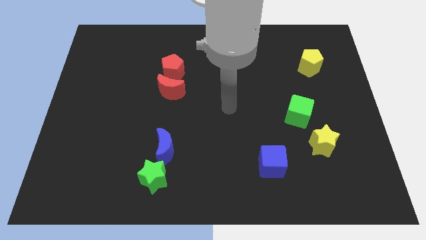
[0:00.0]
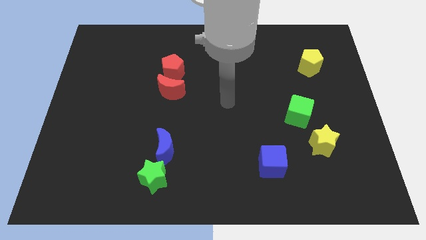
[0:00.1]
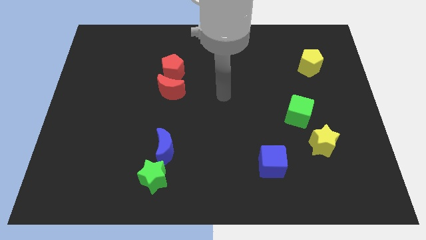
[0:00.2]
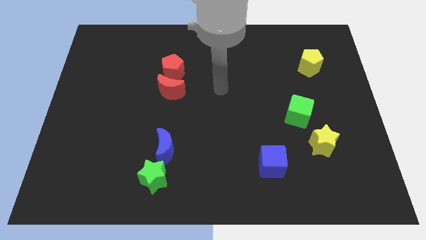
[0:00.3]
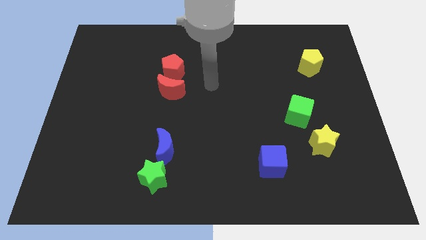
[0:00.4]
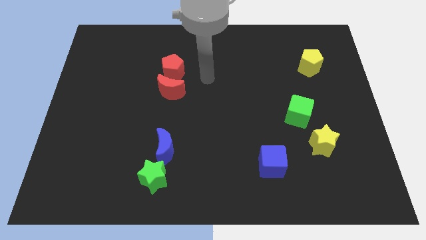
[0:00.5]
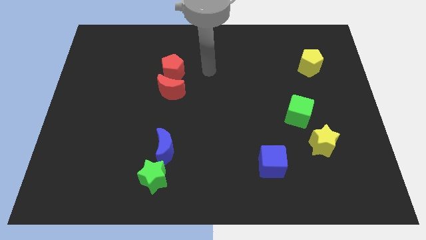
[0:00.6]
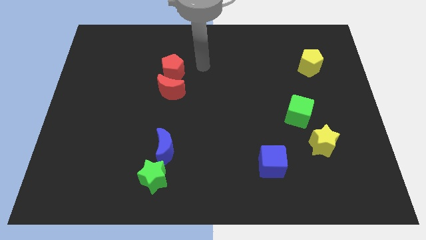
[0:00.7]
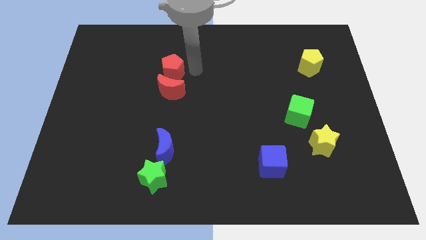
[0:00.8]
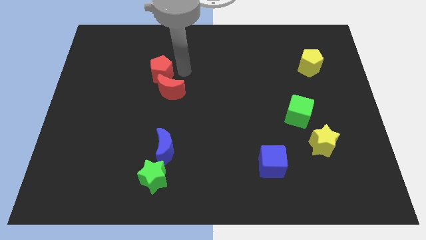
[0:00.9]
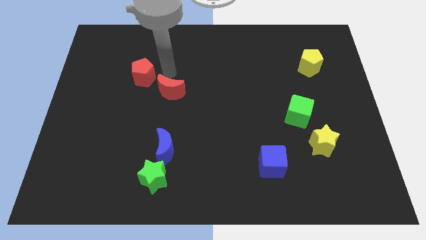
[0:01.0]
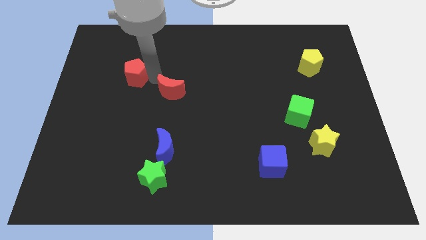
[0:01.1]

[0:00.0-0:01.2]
separate the red moon from the red pentagon

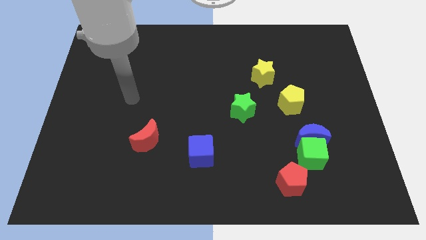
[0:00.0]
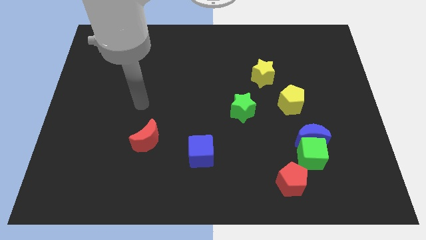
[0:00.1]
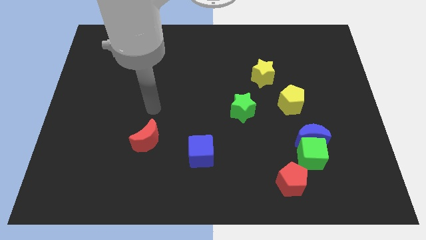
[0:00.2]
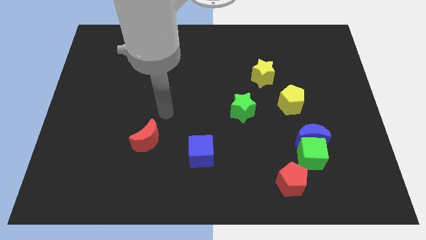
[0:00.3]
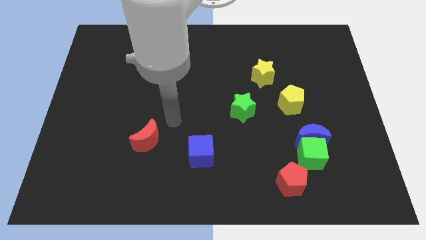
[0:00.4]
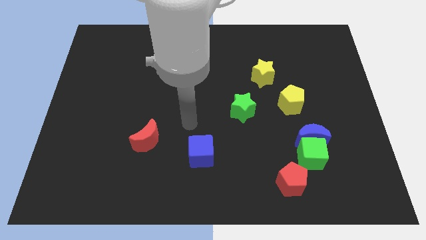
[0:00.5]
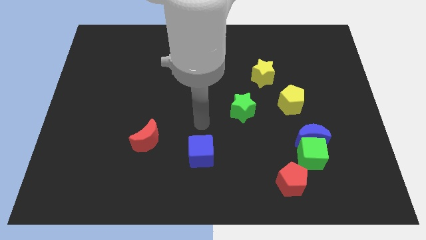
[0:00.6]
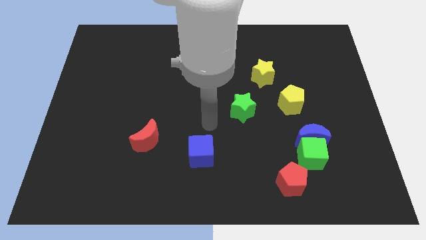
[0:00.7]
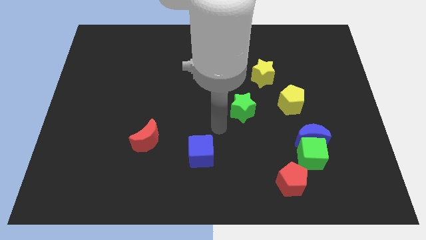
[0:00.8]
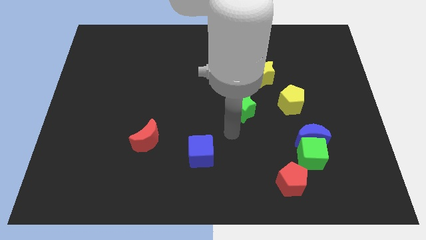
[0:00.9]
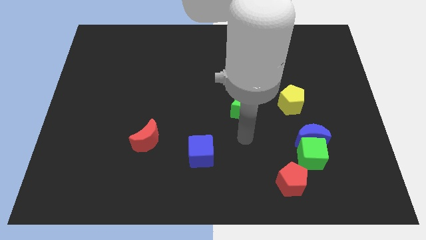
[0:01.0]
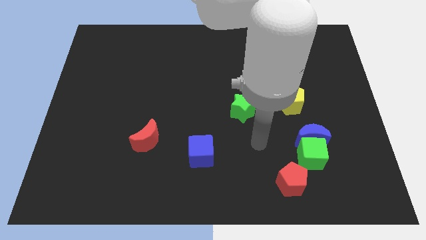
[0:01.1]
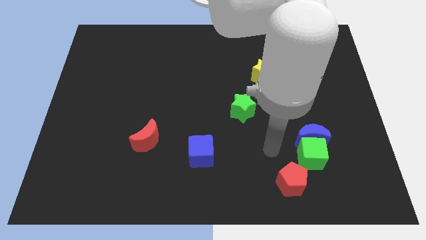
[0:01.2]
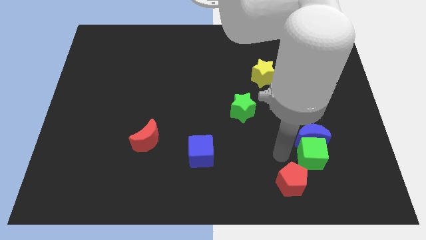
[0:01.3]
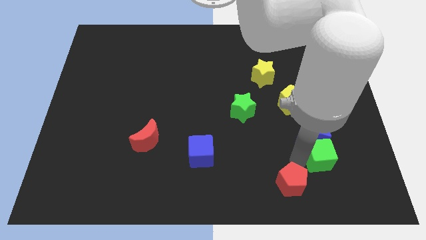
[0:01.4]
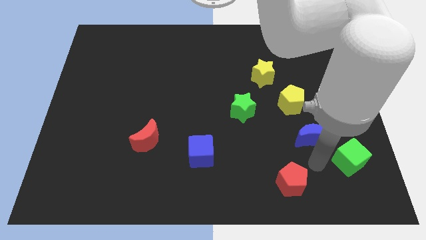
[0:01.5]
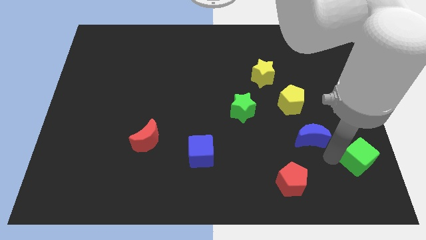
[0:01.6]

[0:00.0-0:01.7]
move the blue moon away from the green cube

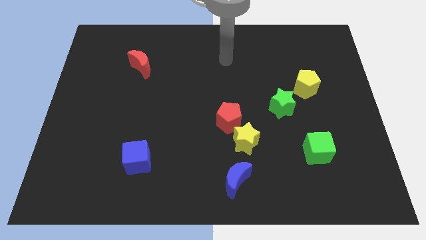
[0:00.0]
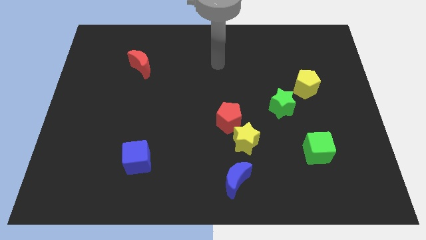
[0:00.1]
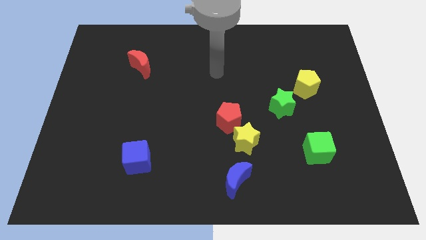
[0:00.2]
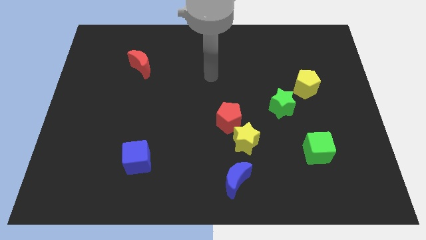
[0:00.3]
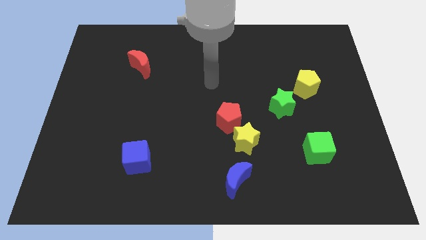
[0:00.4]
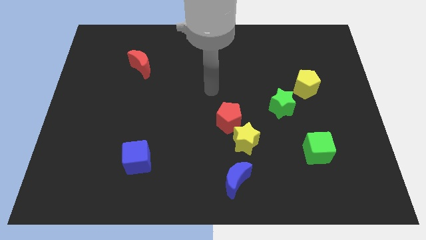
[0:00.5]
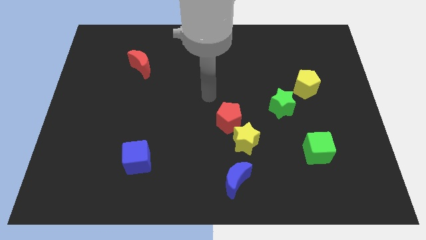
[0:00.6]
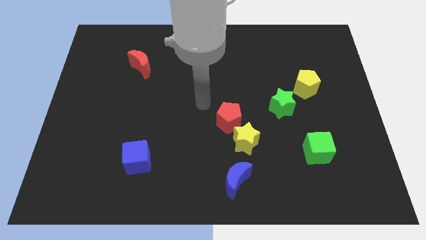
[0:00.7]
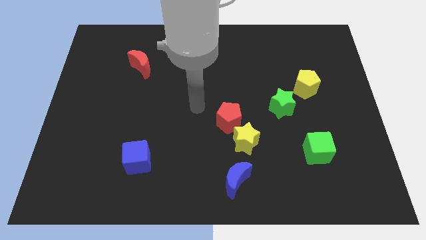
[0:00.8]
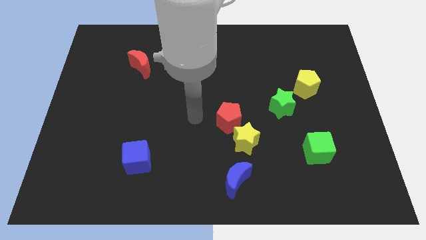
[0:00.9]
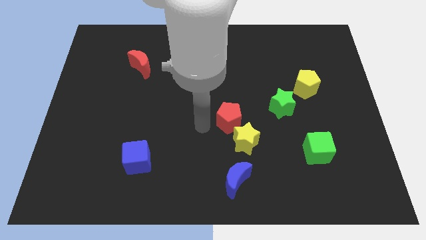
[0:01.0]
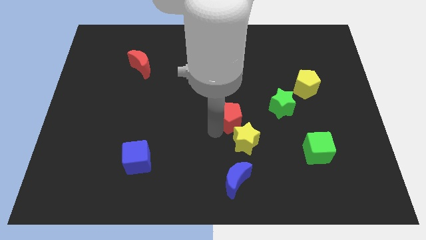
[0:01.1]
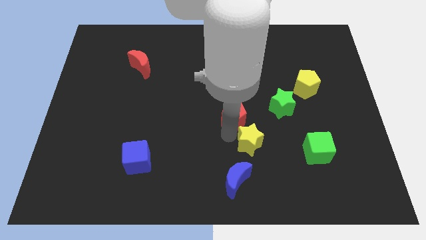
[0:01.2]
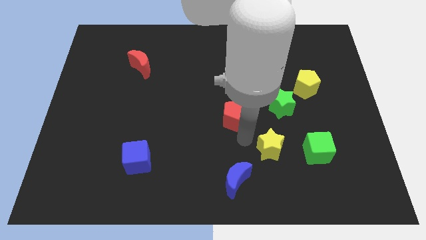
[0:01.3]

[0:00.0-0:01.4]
move the red pentagon away from the yellow star

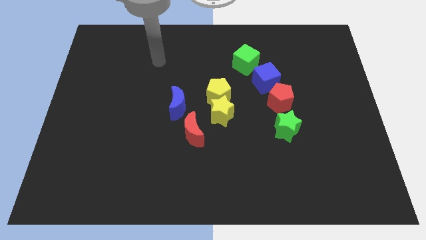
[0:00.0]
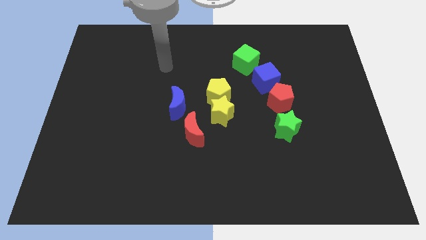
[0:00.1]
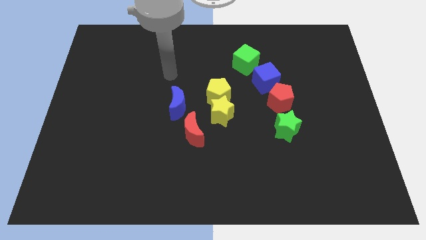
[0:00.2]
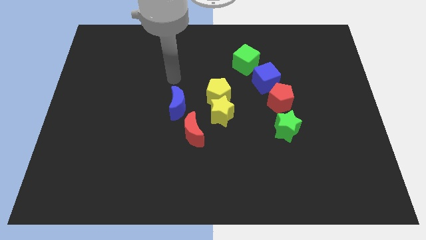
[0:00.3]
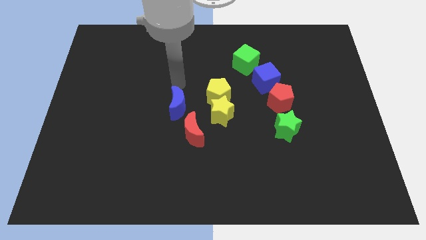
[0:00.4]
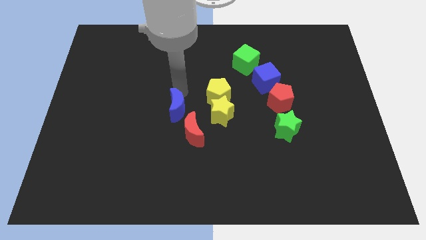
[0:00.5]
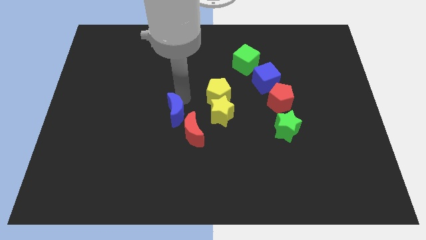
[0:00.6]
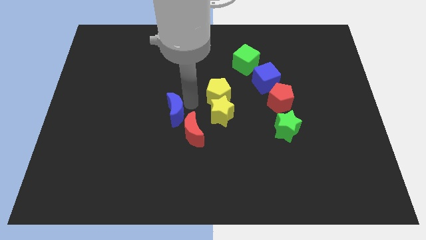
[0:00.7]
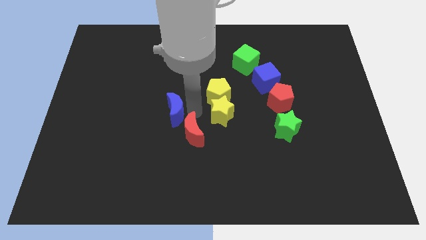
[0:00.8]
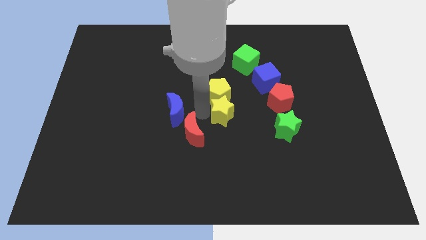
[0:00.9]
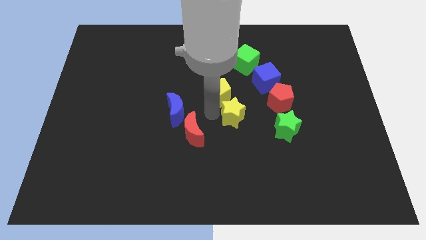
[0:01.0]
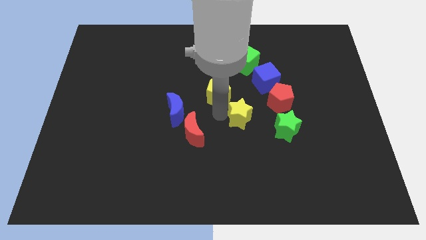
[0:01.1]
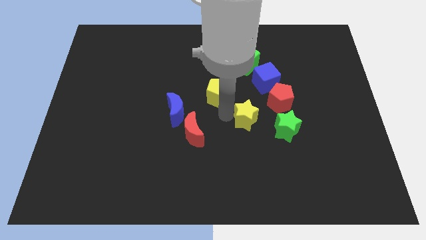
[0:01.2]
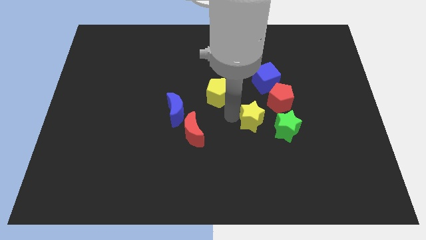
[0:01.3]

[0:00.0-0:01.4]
move the yellow star away from the yellow pentagon and red moon

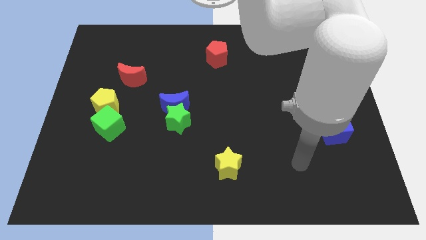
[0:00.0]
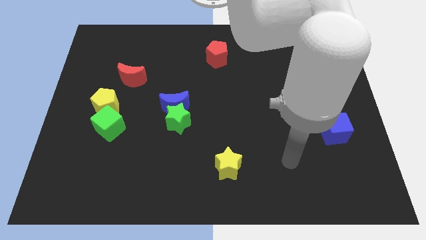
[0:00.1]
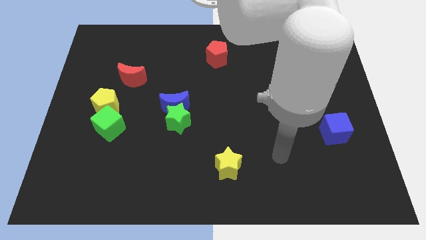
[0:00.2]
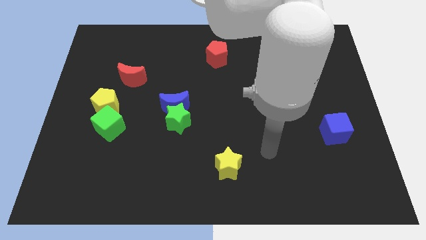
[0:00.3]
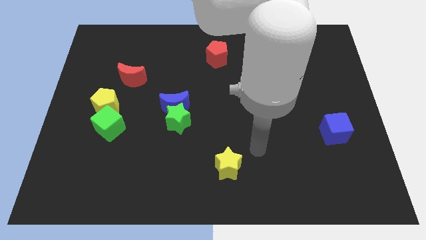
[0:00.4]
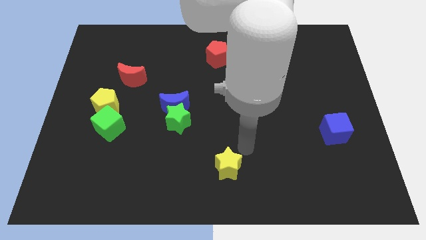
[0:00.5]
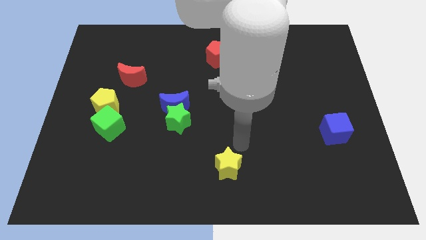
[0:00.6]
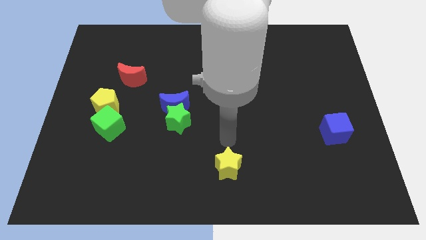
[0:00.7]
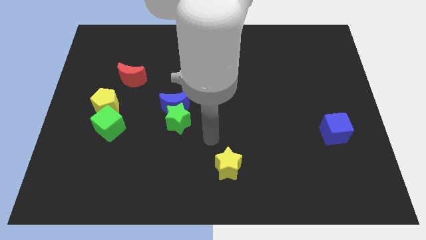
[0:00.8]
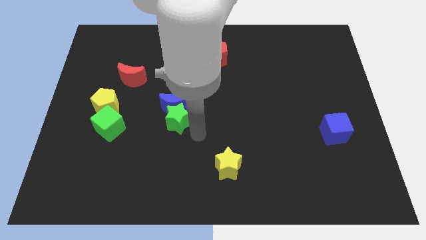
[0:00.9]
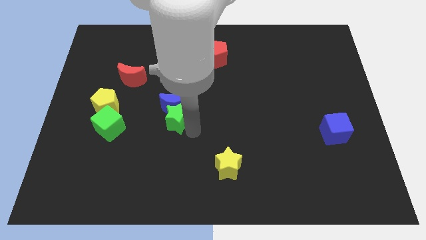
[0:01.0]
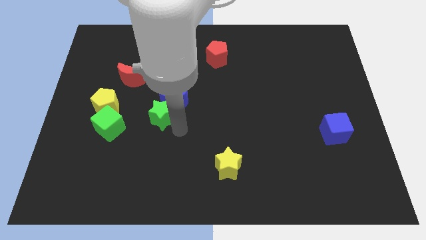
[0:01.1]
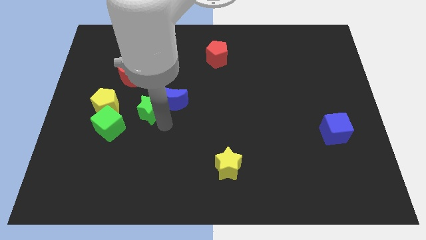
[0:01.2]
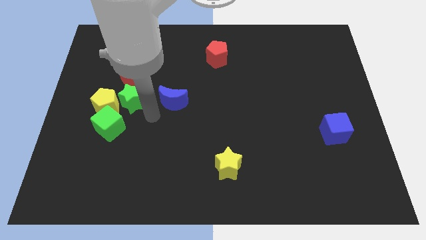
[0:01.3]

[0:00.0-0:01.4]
pull the blue moon apart from the green star

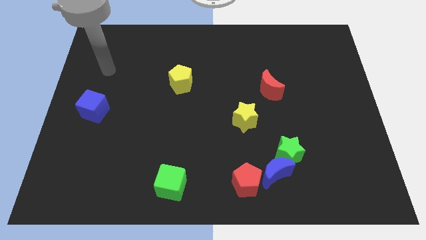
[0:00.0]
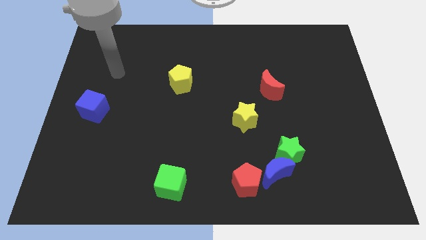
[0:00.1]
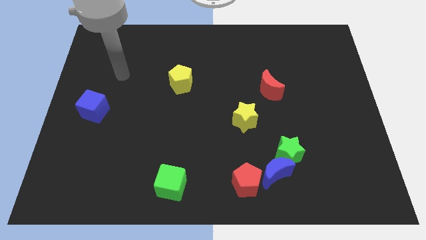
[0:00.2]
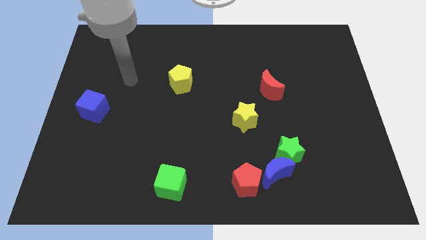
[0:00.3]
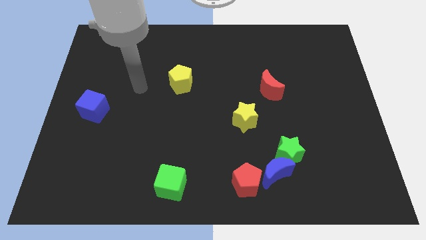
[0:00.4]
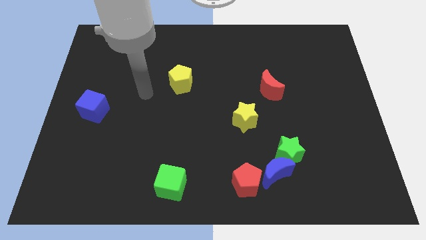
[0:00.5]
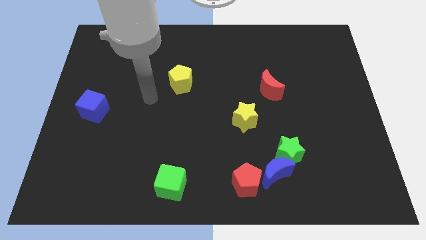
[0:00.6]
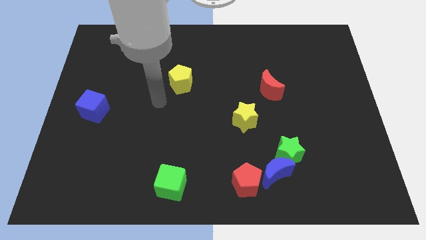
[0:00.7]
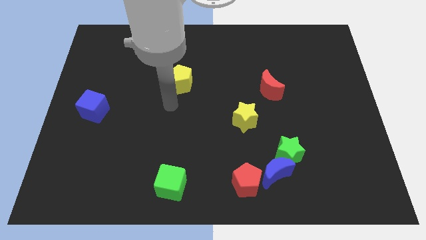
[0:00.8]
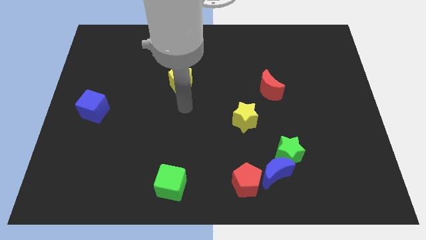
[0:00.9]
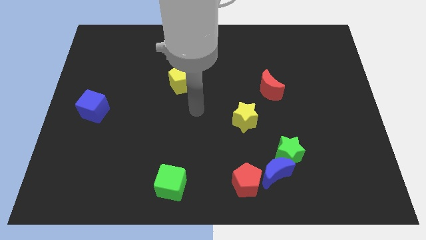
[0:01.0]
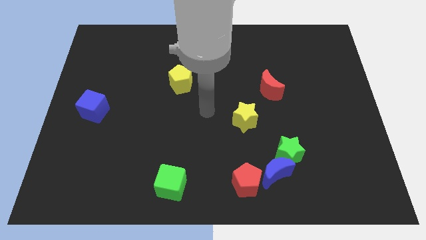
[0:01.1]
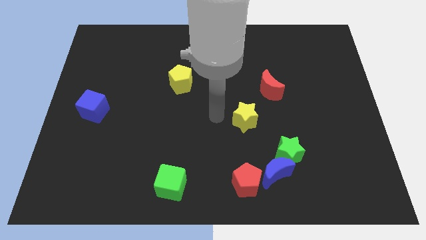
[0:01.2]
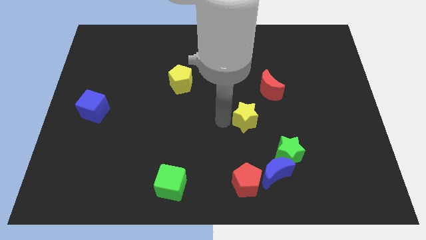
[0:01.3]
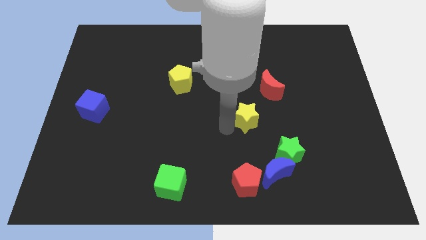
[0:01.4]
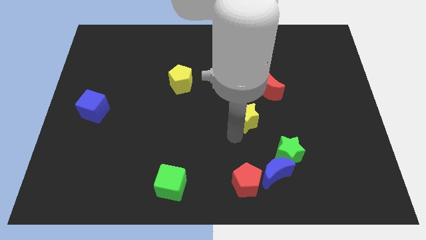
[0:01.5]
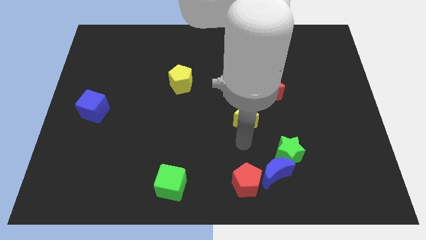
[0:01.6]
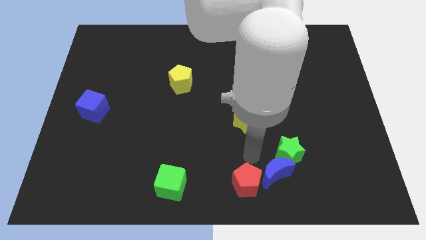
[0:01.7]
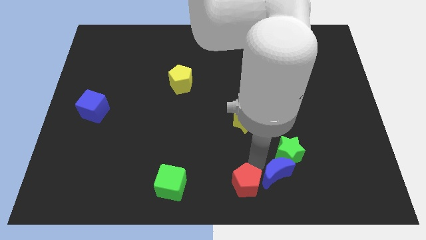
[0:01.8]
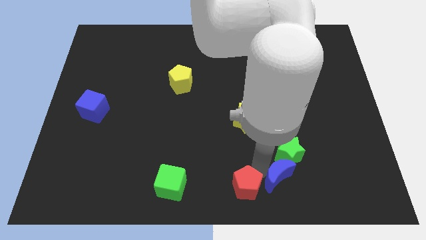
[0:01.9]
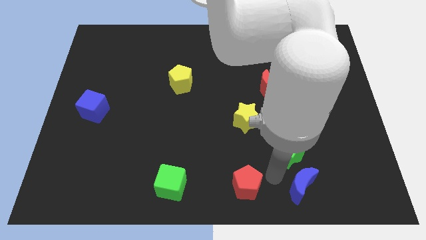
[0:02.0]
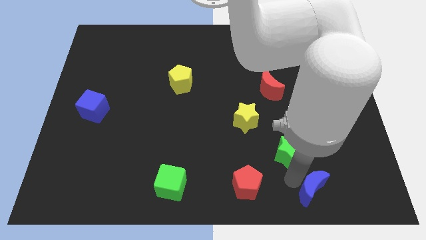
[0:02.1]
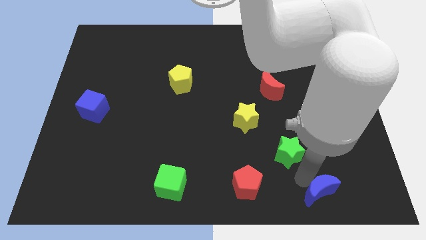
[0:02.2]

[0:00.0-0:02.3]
separate the green star from the blue moon
